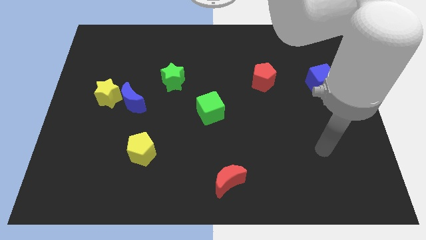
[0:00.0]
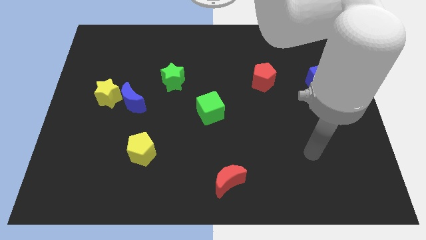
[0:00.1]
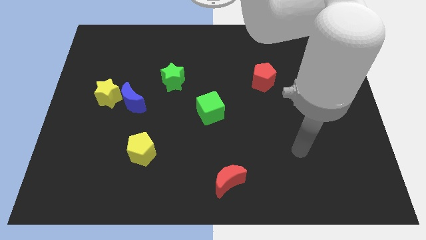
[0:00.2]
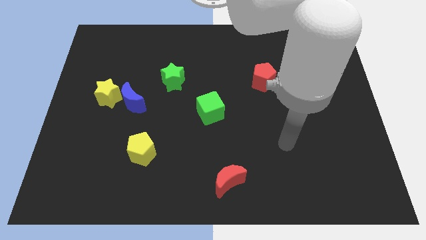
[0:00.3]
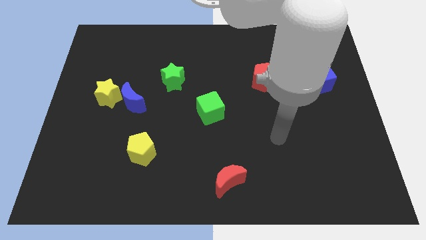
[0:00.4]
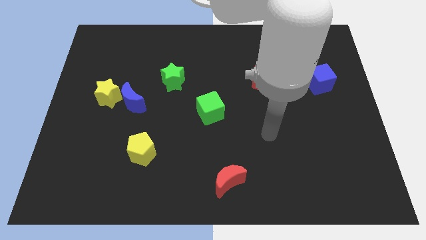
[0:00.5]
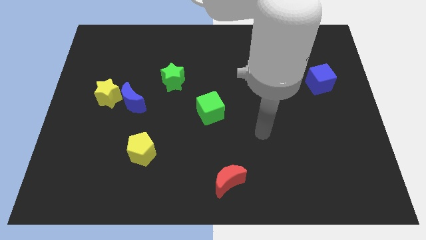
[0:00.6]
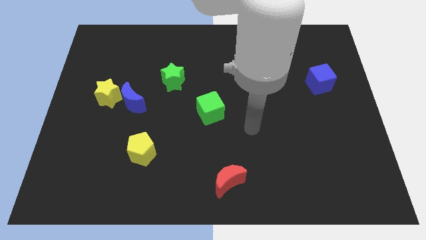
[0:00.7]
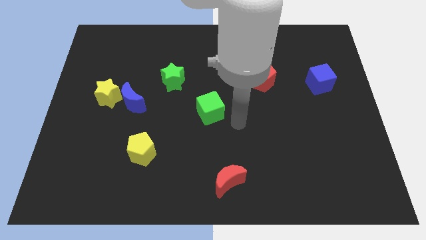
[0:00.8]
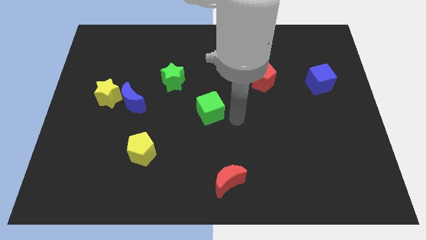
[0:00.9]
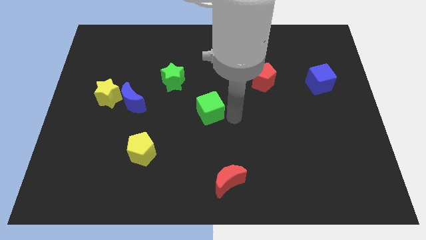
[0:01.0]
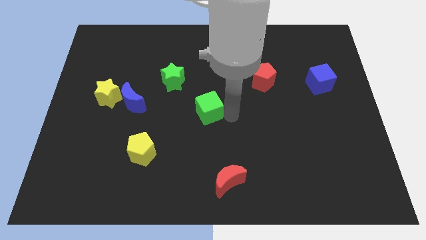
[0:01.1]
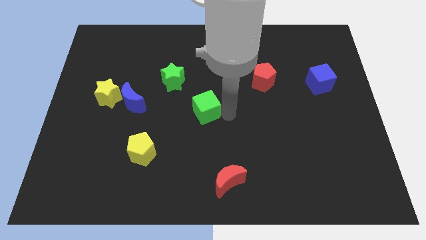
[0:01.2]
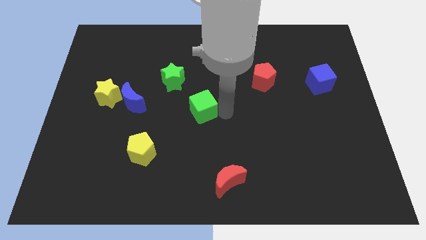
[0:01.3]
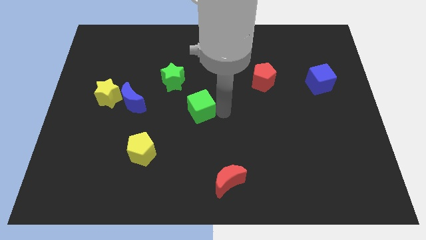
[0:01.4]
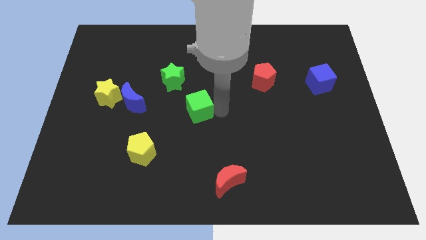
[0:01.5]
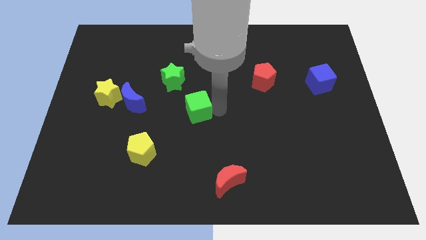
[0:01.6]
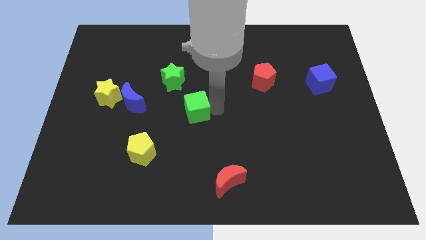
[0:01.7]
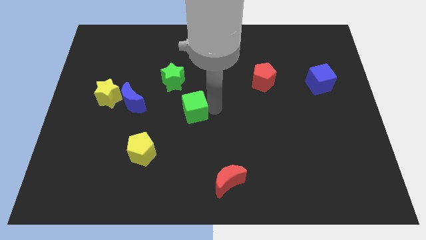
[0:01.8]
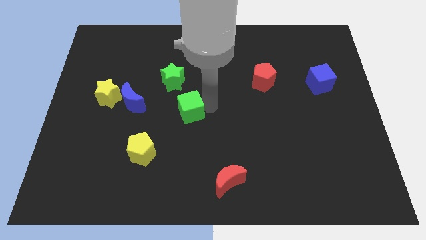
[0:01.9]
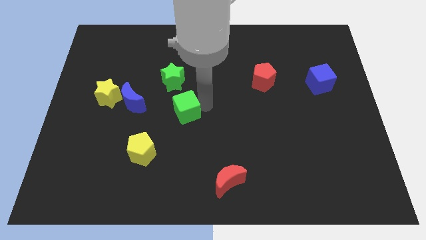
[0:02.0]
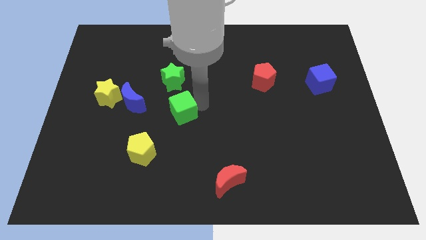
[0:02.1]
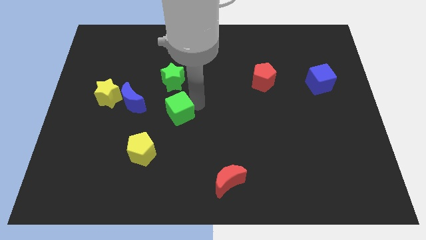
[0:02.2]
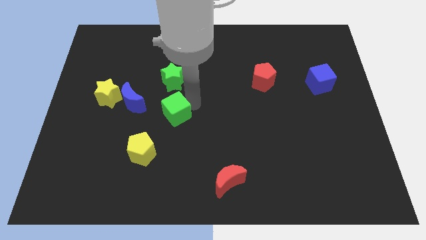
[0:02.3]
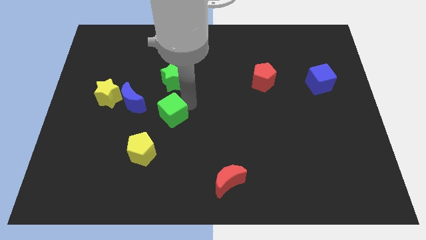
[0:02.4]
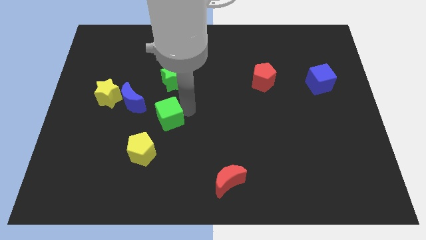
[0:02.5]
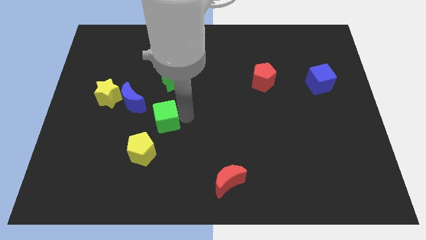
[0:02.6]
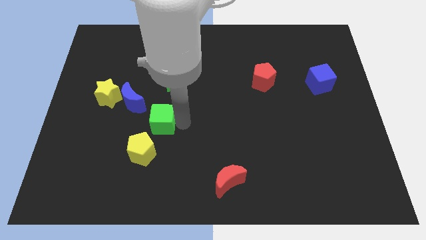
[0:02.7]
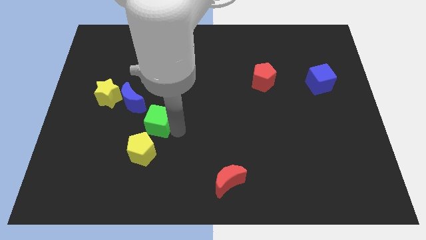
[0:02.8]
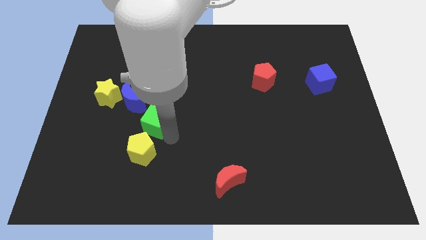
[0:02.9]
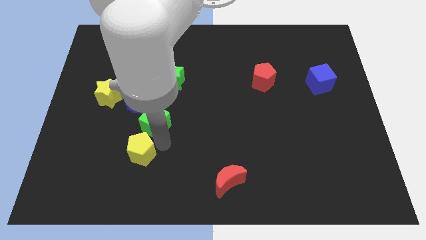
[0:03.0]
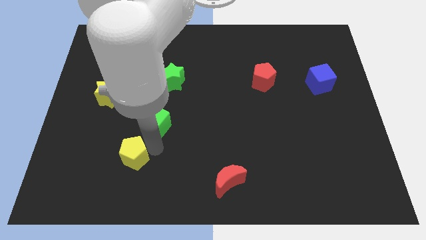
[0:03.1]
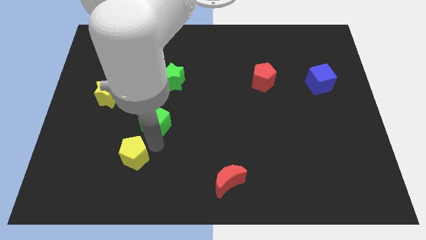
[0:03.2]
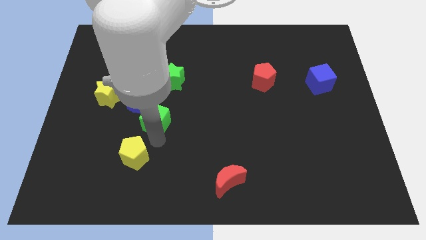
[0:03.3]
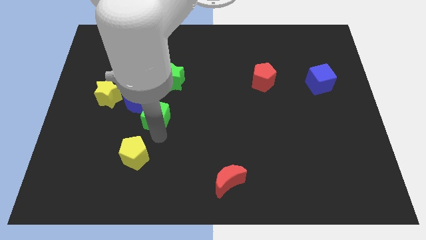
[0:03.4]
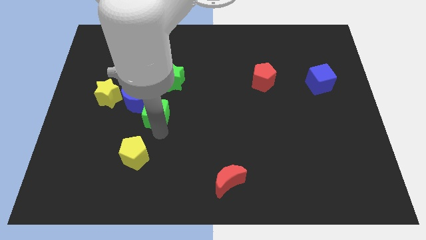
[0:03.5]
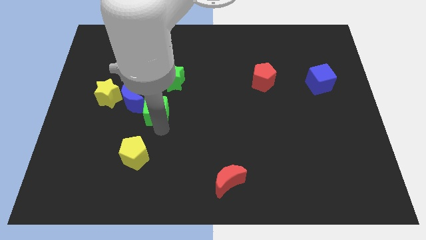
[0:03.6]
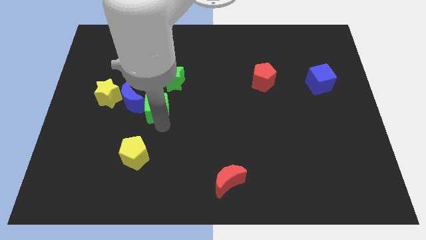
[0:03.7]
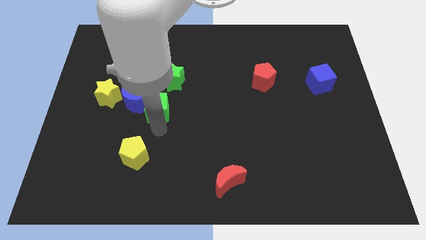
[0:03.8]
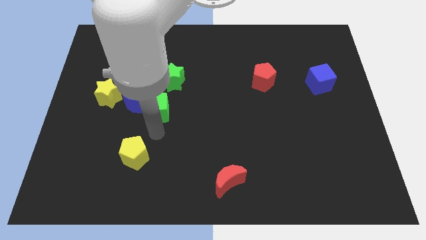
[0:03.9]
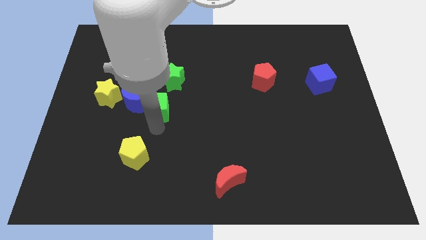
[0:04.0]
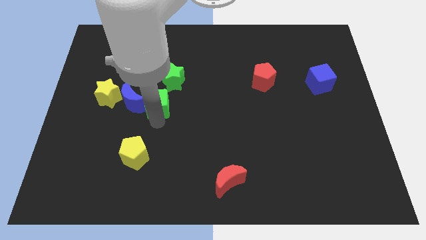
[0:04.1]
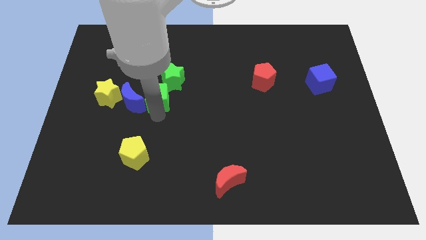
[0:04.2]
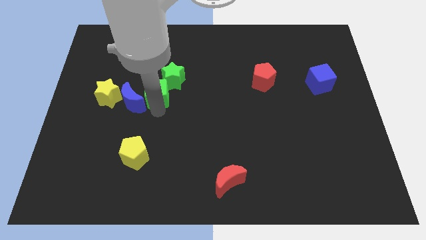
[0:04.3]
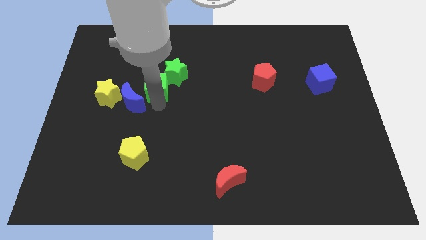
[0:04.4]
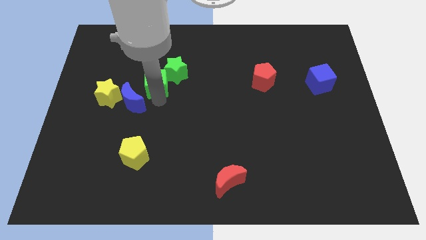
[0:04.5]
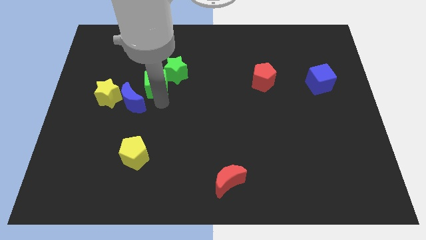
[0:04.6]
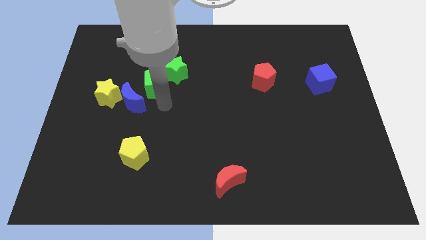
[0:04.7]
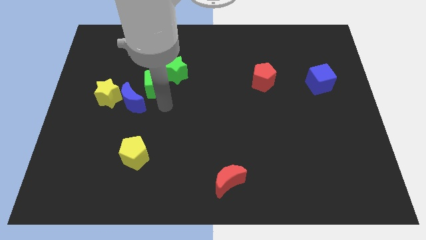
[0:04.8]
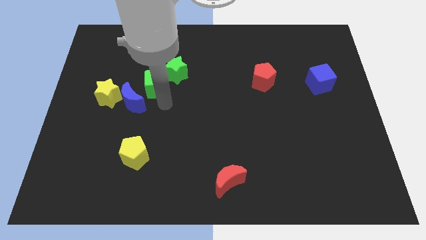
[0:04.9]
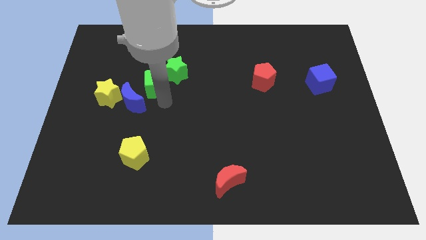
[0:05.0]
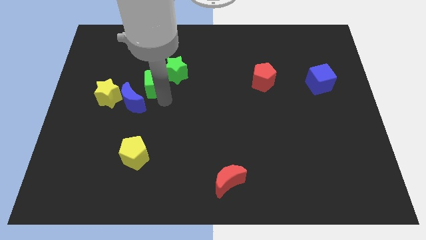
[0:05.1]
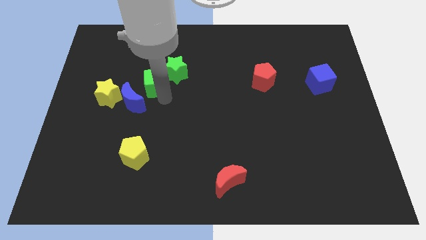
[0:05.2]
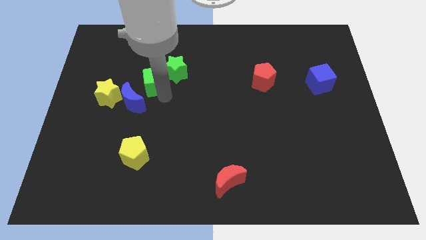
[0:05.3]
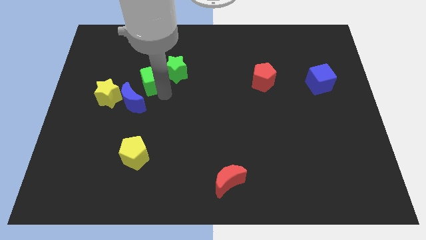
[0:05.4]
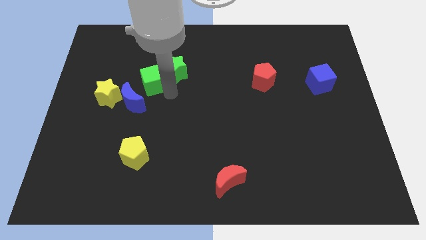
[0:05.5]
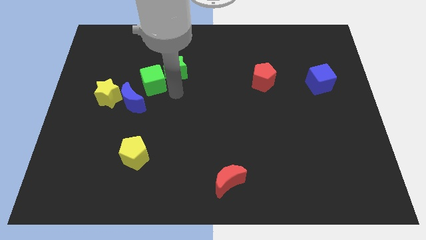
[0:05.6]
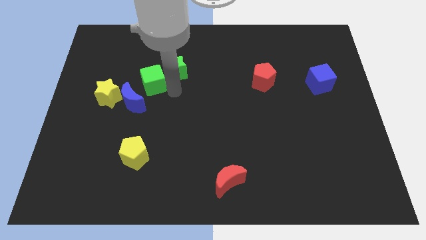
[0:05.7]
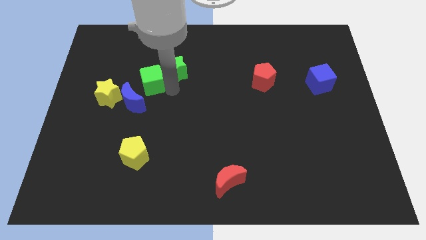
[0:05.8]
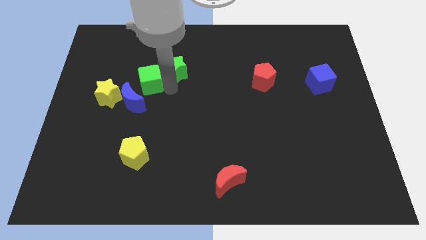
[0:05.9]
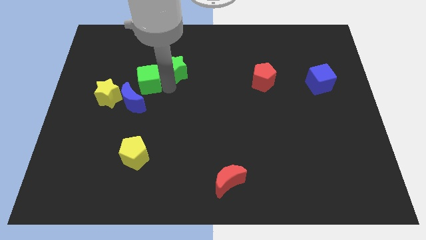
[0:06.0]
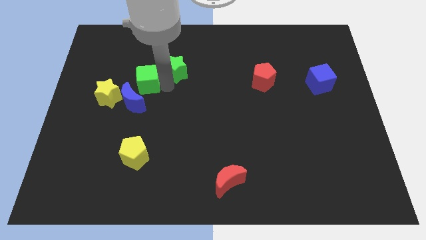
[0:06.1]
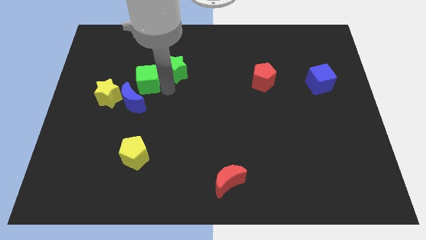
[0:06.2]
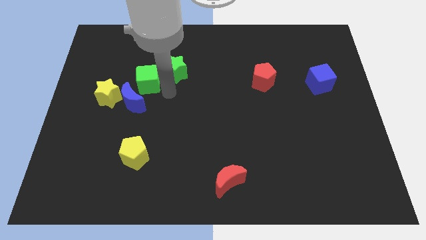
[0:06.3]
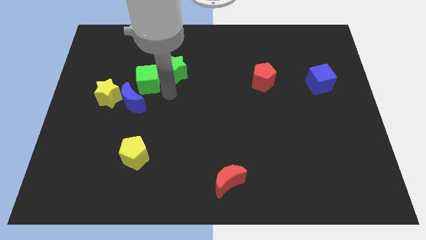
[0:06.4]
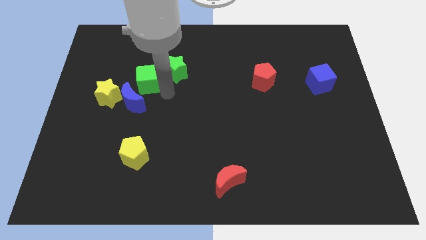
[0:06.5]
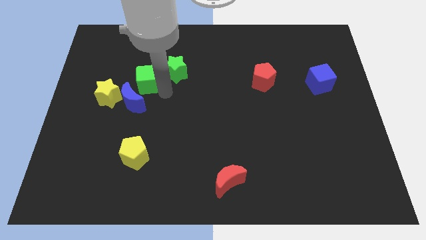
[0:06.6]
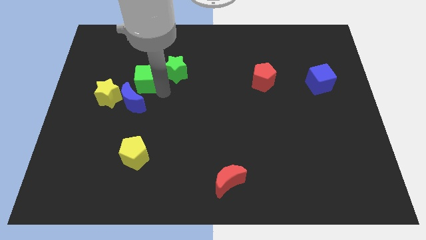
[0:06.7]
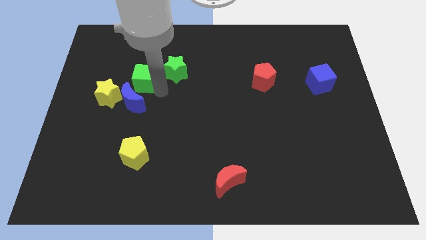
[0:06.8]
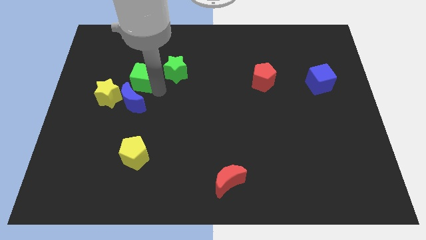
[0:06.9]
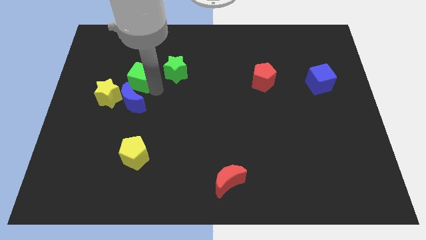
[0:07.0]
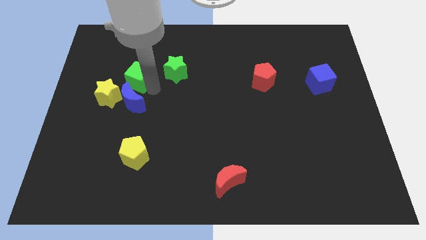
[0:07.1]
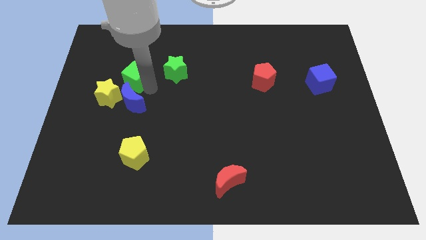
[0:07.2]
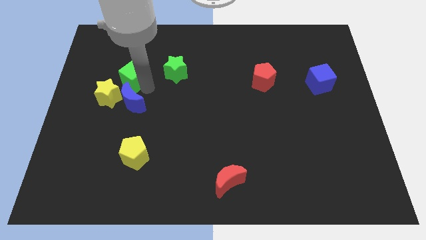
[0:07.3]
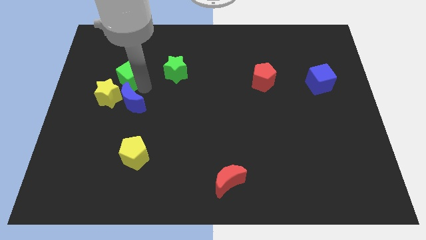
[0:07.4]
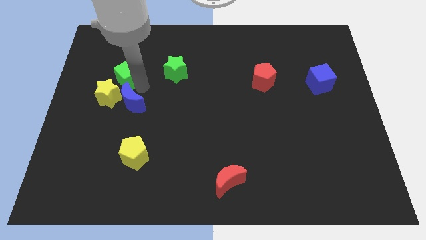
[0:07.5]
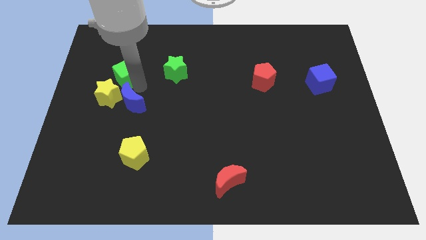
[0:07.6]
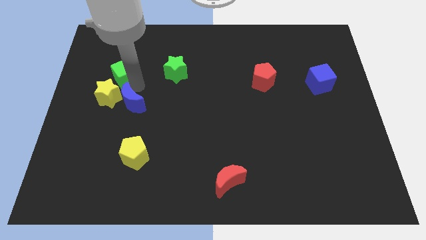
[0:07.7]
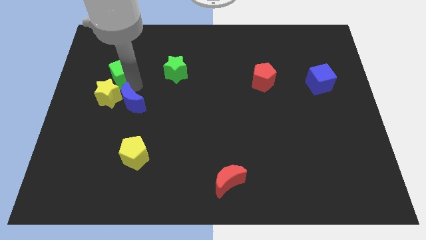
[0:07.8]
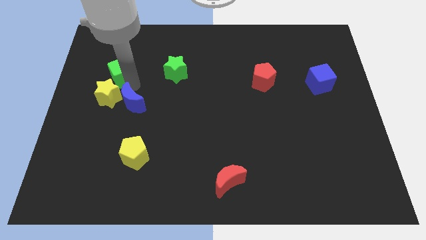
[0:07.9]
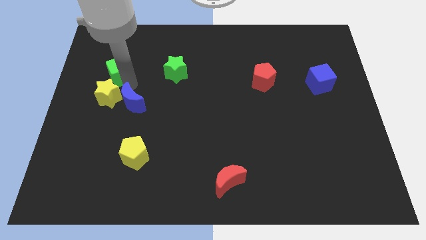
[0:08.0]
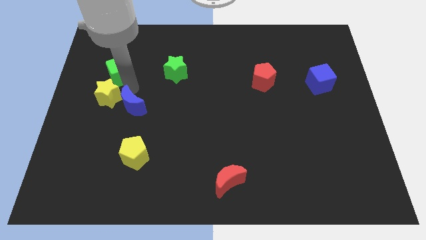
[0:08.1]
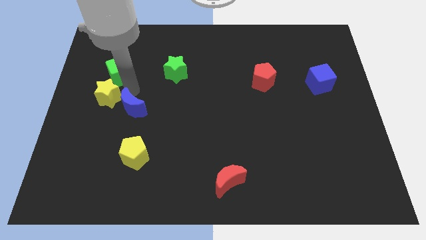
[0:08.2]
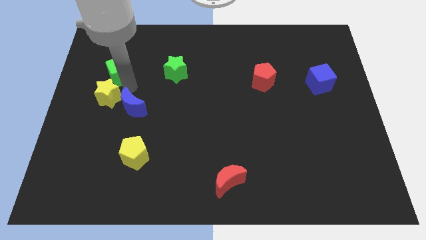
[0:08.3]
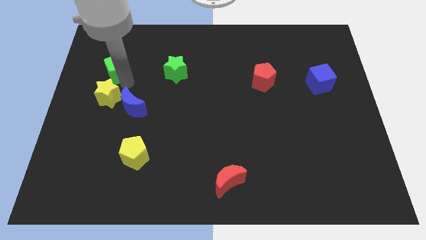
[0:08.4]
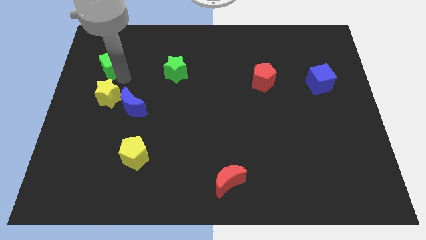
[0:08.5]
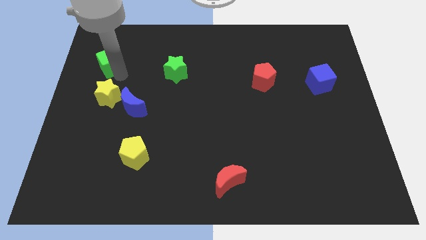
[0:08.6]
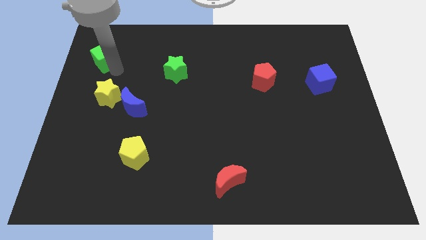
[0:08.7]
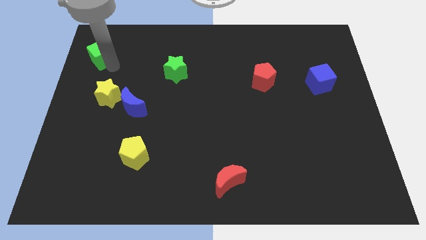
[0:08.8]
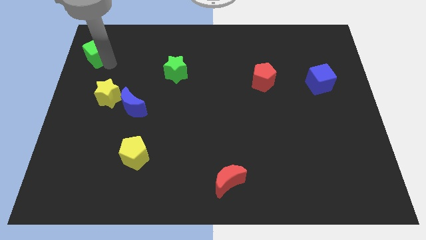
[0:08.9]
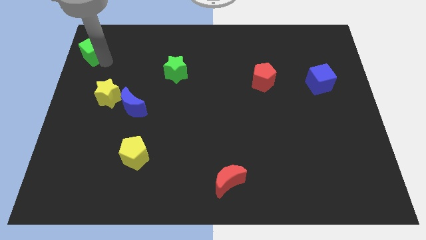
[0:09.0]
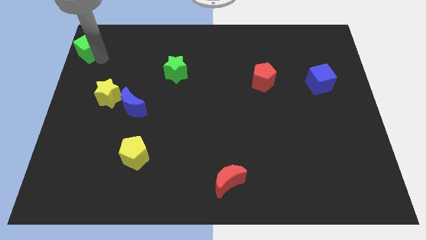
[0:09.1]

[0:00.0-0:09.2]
put the green cube to the top left corner
